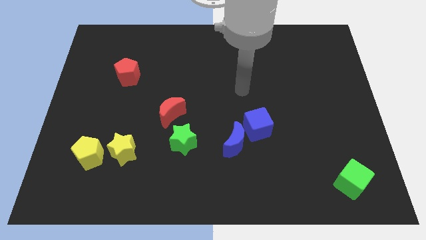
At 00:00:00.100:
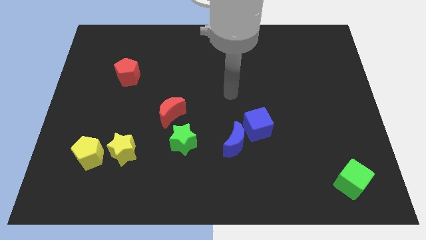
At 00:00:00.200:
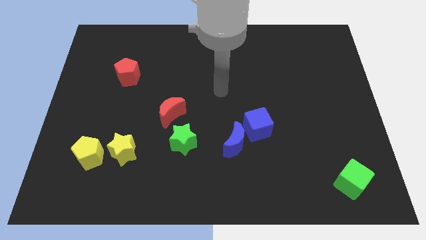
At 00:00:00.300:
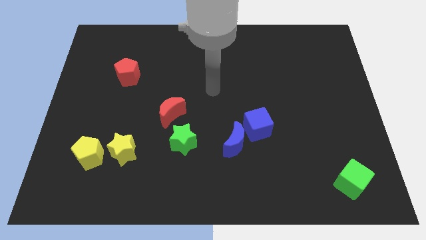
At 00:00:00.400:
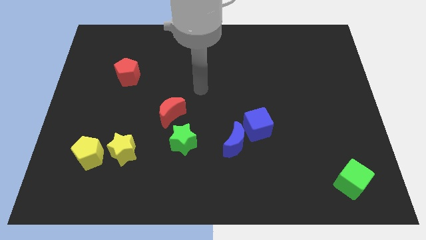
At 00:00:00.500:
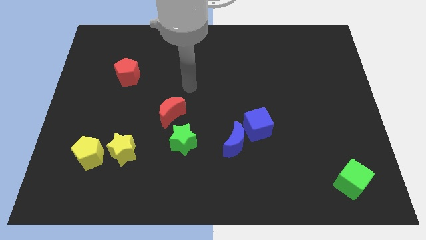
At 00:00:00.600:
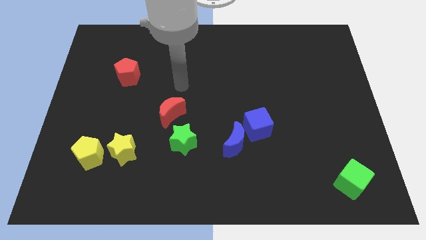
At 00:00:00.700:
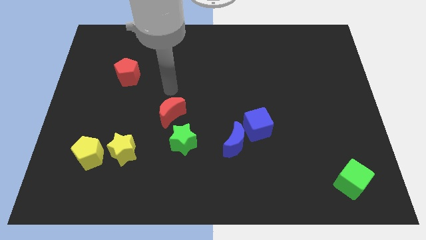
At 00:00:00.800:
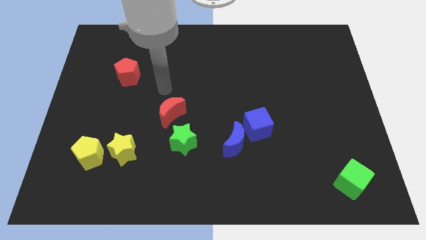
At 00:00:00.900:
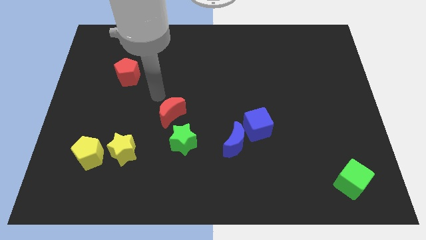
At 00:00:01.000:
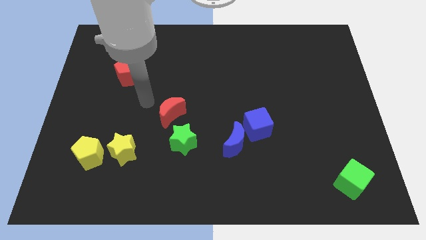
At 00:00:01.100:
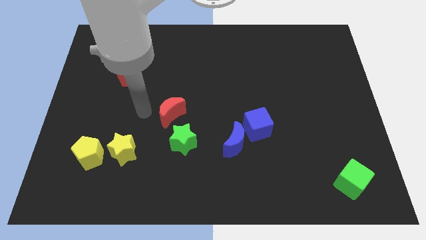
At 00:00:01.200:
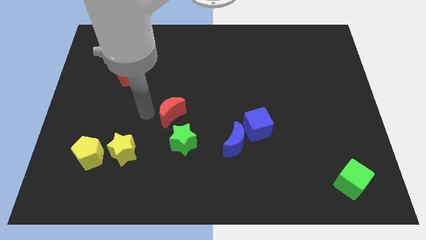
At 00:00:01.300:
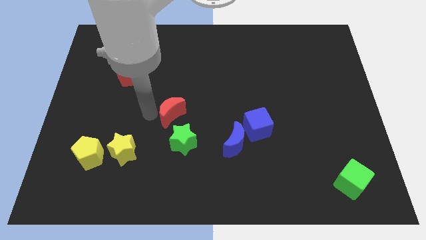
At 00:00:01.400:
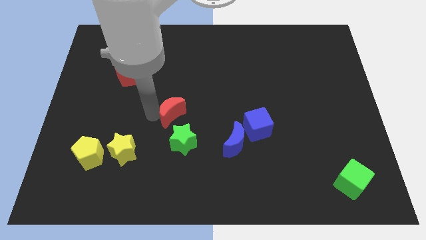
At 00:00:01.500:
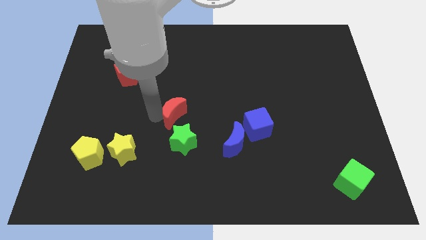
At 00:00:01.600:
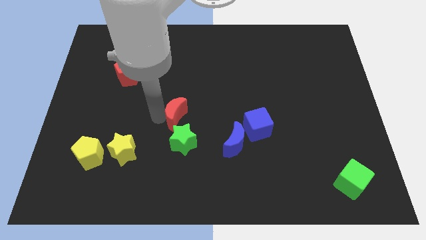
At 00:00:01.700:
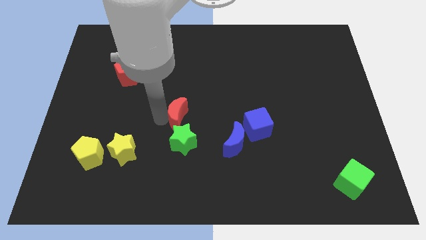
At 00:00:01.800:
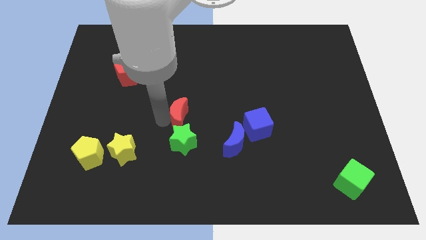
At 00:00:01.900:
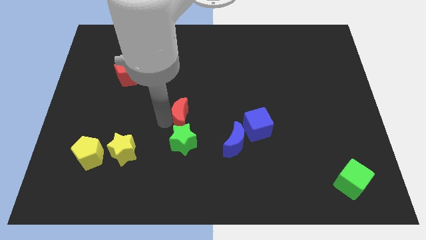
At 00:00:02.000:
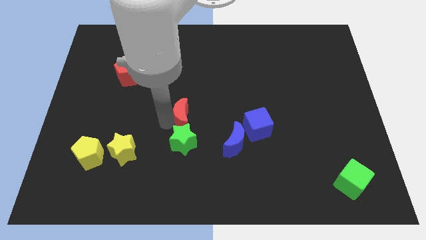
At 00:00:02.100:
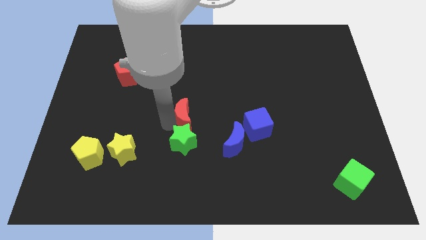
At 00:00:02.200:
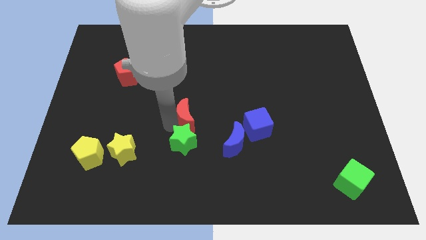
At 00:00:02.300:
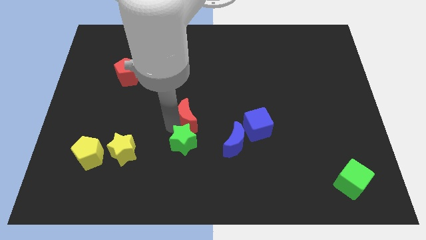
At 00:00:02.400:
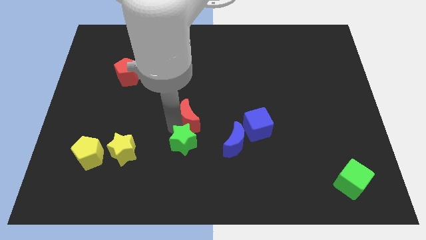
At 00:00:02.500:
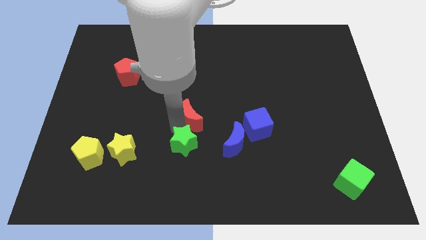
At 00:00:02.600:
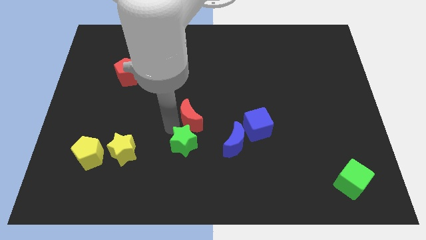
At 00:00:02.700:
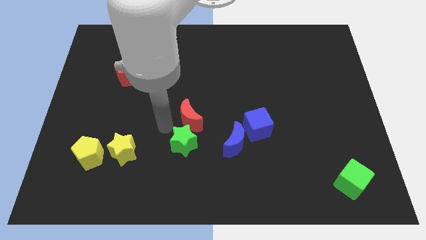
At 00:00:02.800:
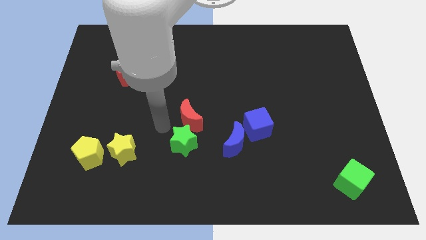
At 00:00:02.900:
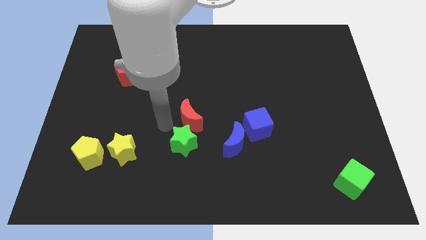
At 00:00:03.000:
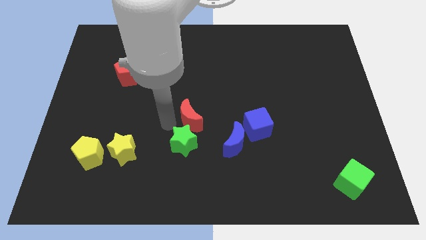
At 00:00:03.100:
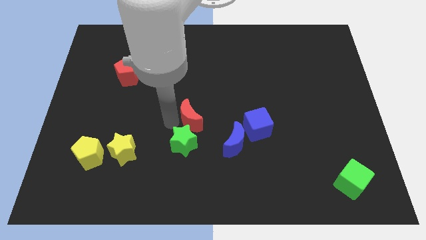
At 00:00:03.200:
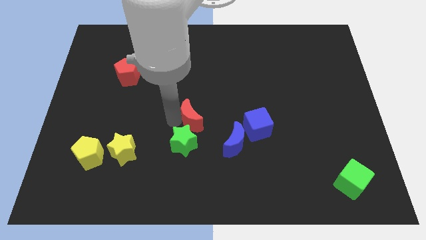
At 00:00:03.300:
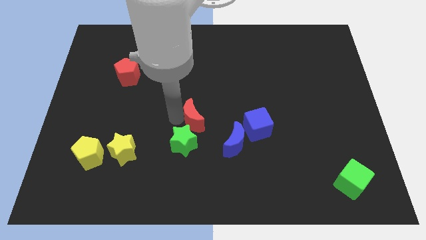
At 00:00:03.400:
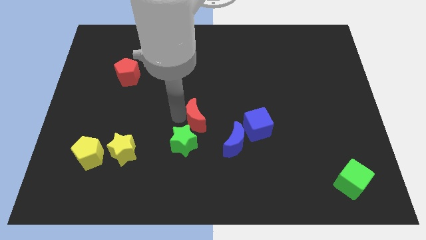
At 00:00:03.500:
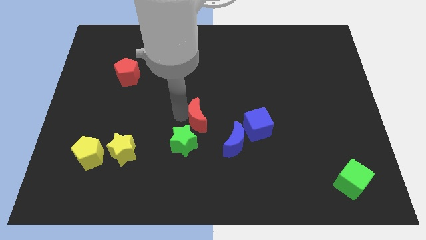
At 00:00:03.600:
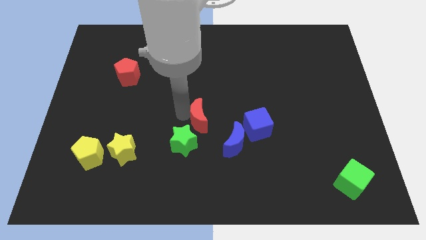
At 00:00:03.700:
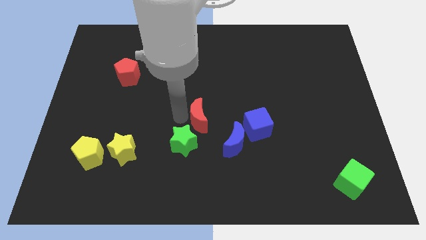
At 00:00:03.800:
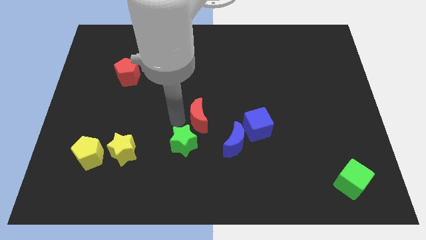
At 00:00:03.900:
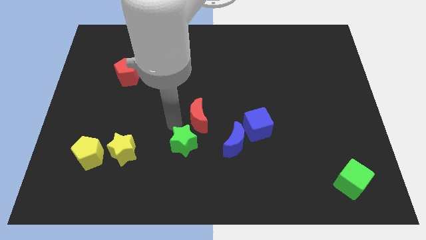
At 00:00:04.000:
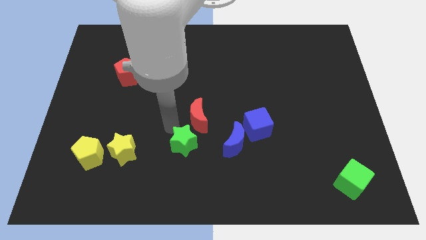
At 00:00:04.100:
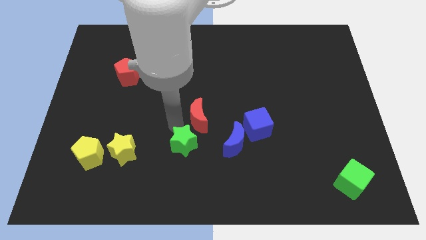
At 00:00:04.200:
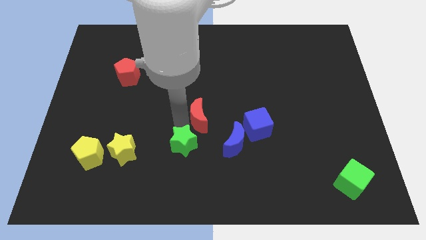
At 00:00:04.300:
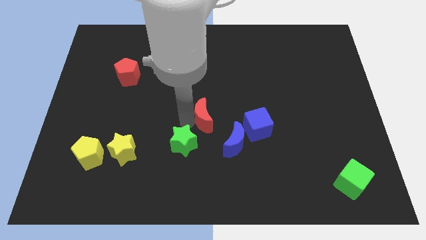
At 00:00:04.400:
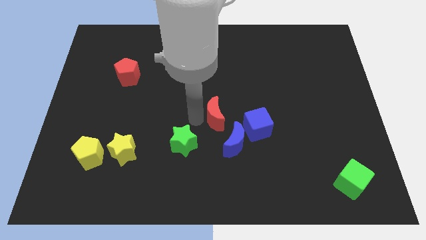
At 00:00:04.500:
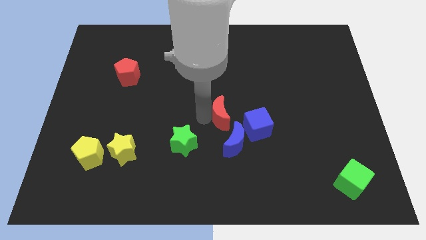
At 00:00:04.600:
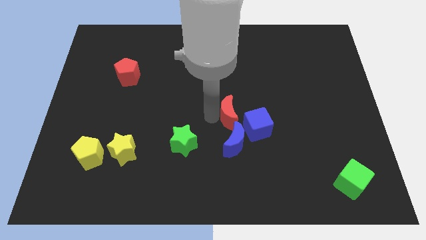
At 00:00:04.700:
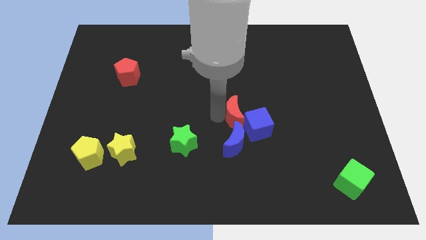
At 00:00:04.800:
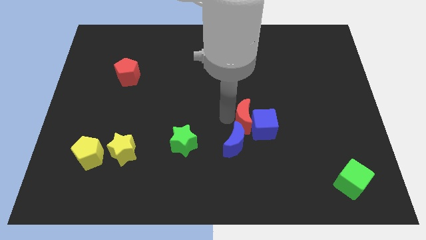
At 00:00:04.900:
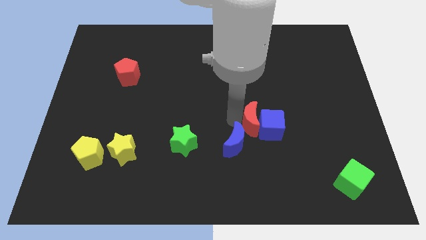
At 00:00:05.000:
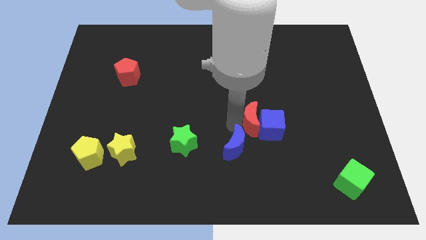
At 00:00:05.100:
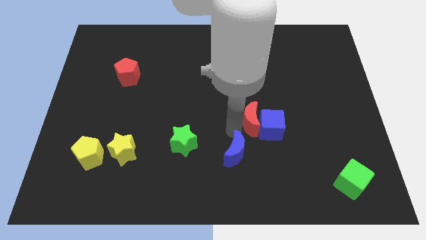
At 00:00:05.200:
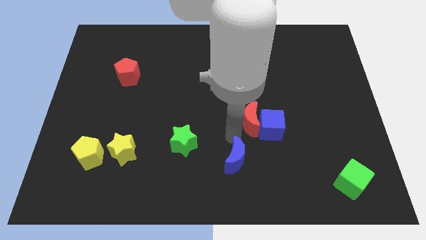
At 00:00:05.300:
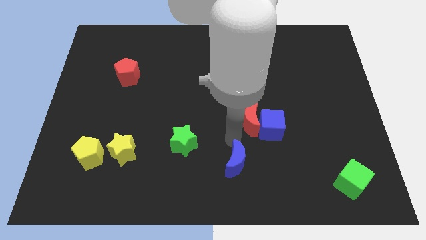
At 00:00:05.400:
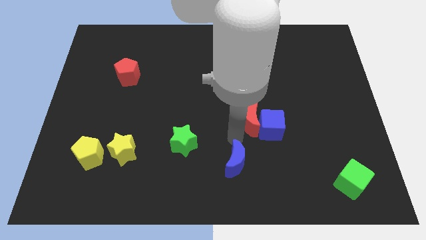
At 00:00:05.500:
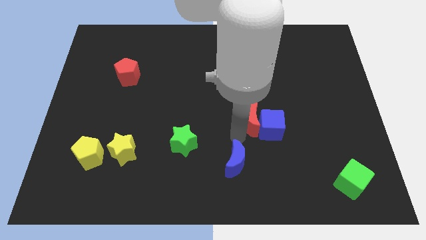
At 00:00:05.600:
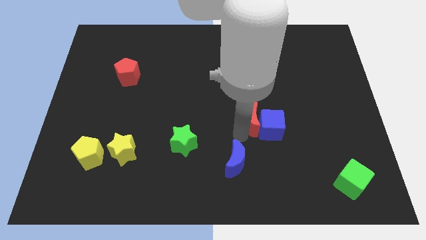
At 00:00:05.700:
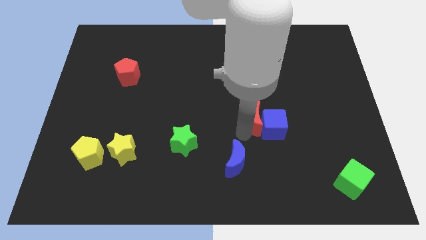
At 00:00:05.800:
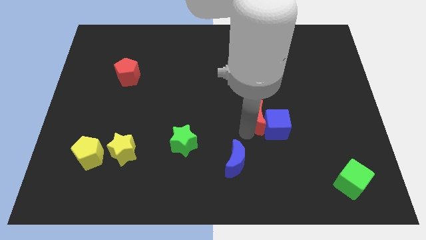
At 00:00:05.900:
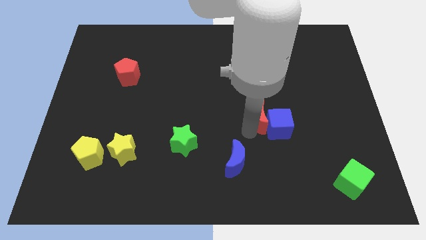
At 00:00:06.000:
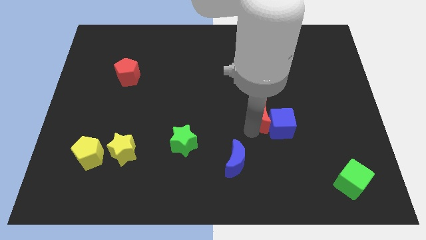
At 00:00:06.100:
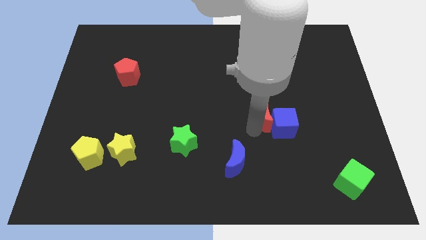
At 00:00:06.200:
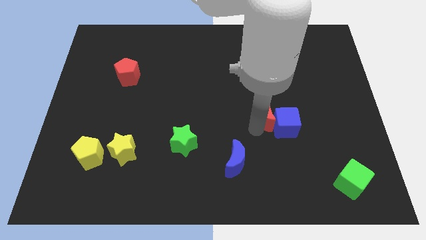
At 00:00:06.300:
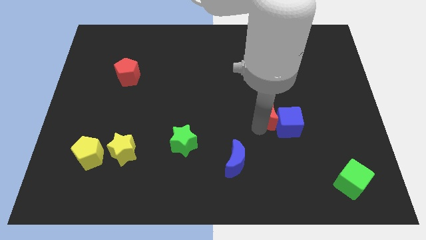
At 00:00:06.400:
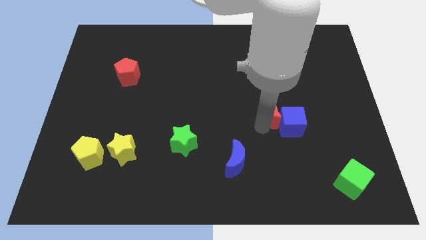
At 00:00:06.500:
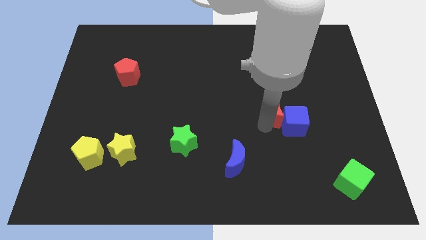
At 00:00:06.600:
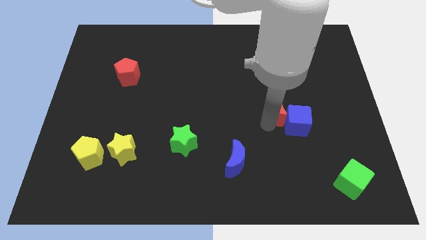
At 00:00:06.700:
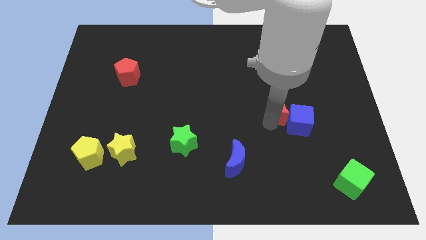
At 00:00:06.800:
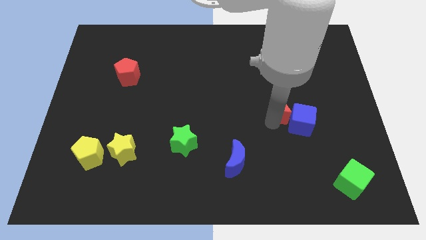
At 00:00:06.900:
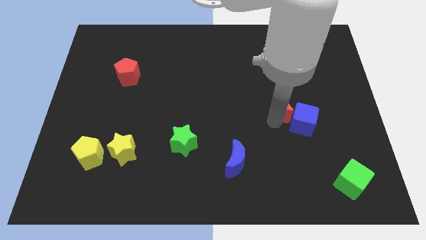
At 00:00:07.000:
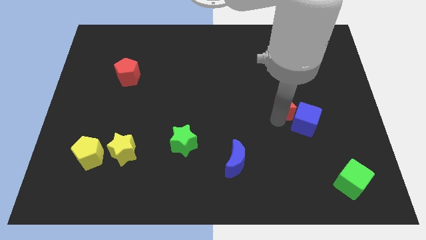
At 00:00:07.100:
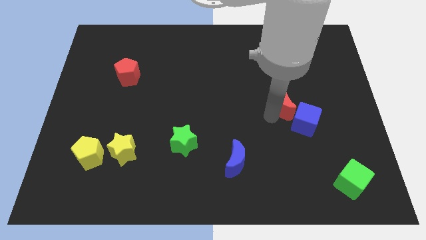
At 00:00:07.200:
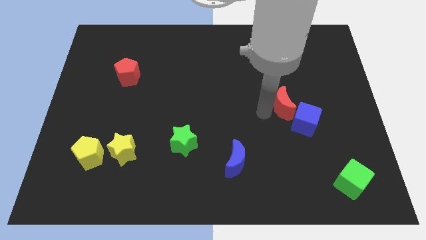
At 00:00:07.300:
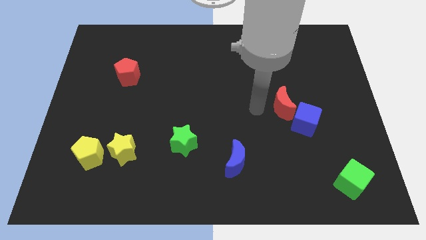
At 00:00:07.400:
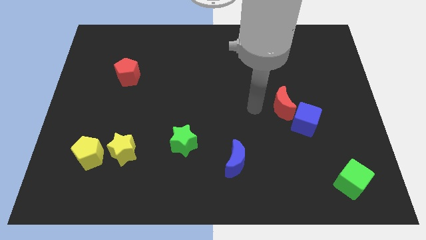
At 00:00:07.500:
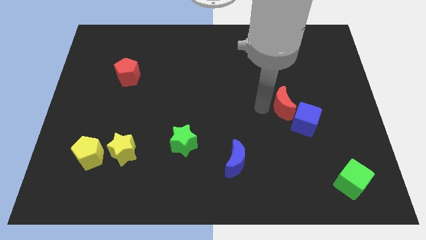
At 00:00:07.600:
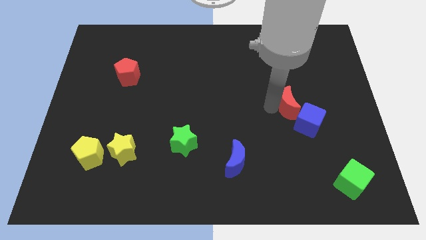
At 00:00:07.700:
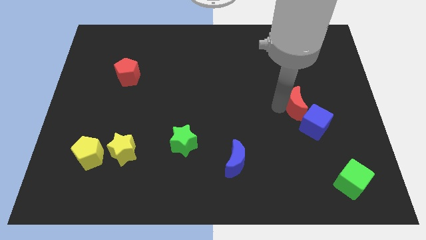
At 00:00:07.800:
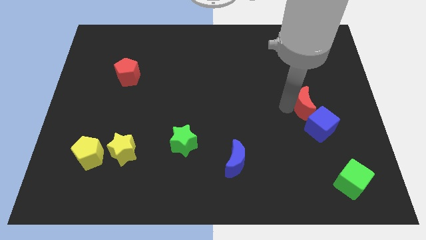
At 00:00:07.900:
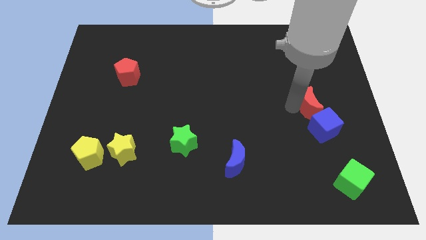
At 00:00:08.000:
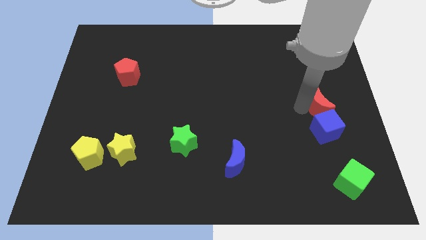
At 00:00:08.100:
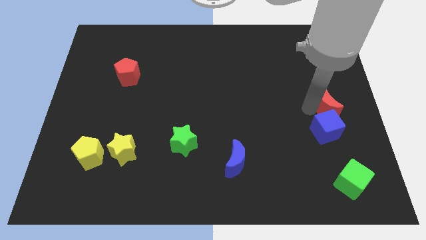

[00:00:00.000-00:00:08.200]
push the red moon to the center right

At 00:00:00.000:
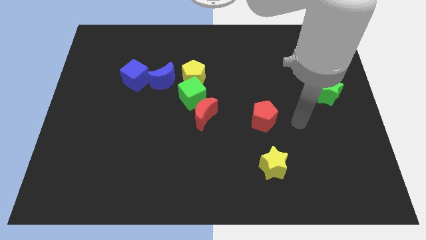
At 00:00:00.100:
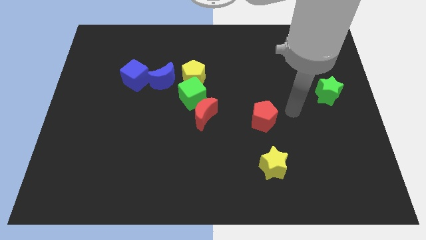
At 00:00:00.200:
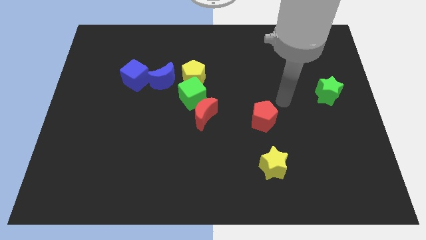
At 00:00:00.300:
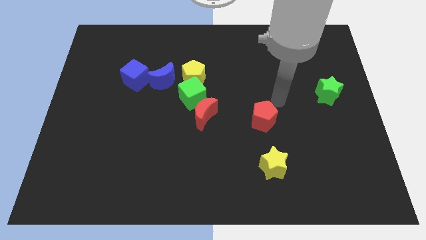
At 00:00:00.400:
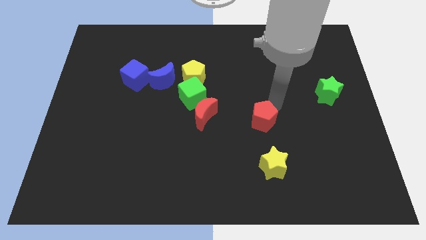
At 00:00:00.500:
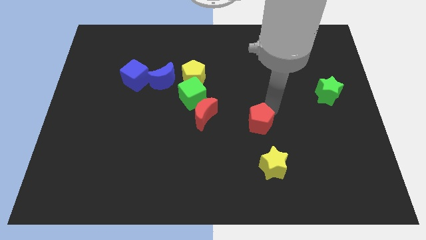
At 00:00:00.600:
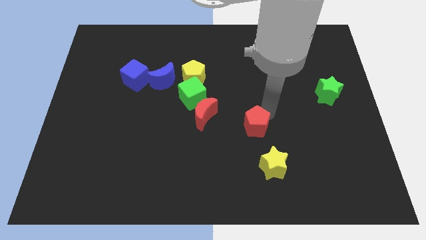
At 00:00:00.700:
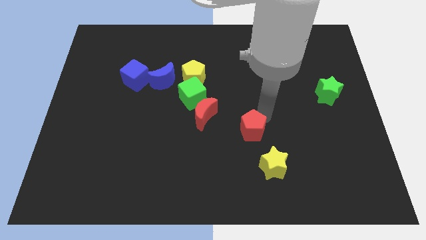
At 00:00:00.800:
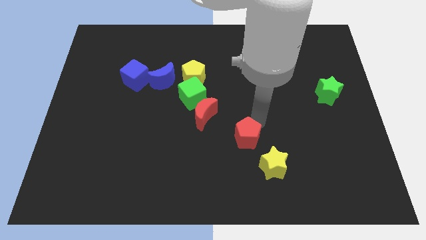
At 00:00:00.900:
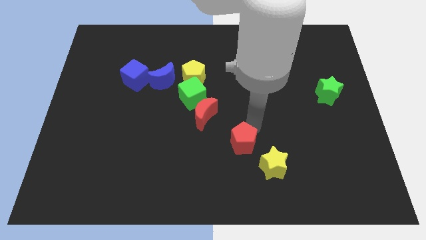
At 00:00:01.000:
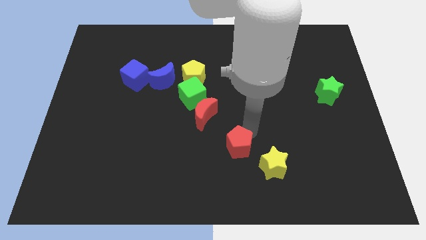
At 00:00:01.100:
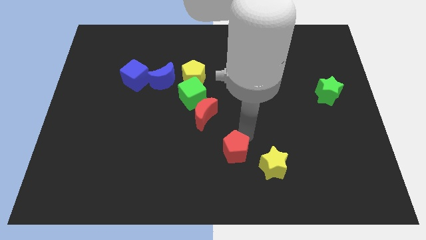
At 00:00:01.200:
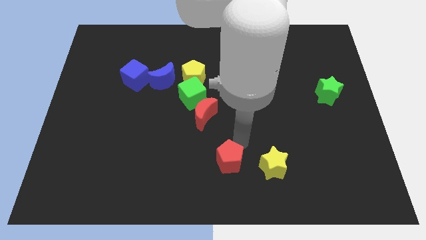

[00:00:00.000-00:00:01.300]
push the red pentagon to the bottom
